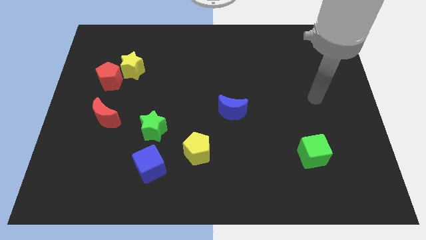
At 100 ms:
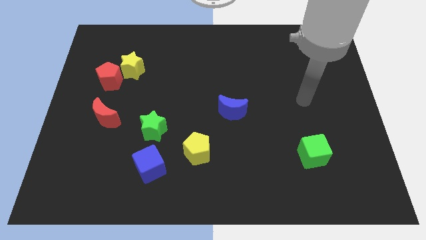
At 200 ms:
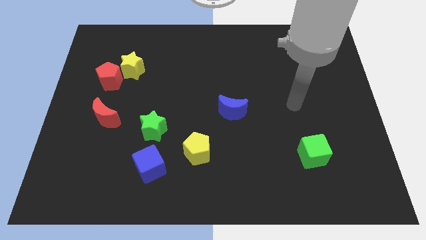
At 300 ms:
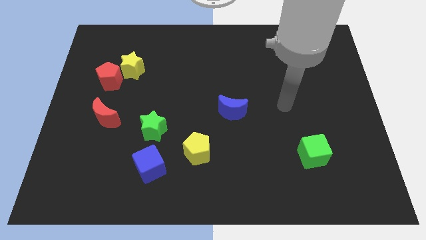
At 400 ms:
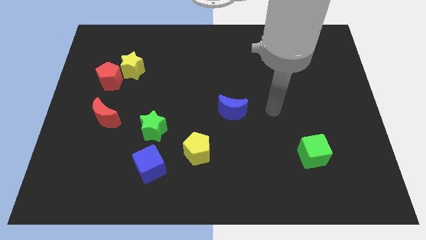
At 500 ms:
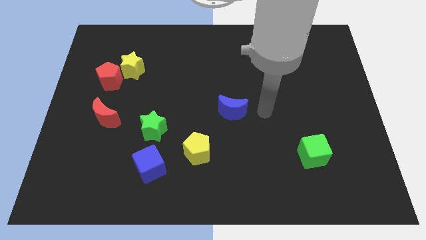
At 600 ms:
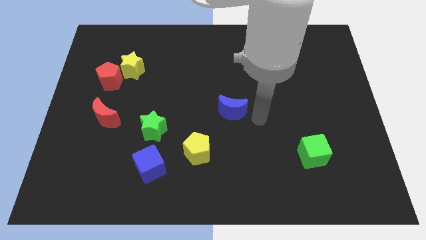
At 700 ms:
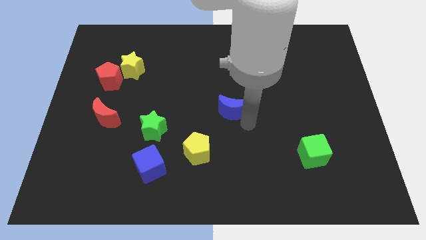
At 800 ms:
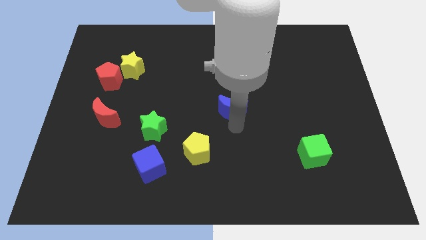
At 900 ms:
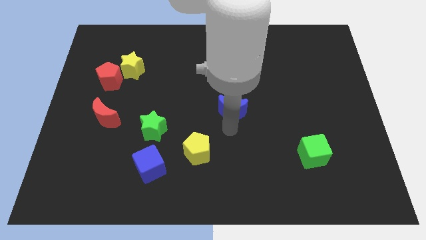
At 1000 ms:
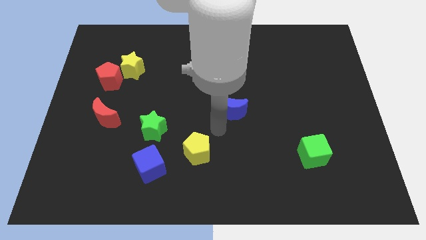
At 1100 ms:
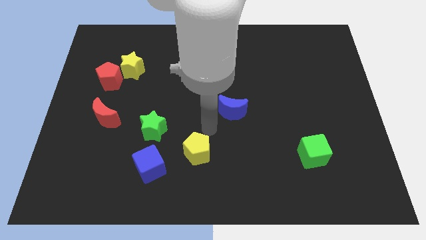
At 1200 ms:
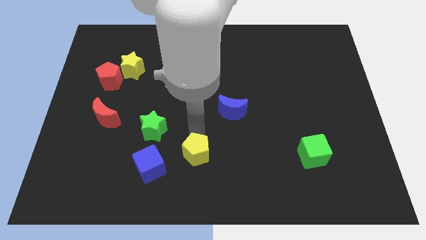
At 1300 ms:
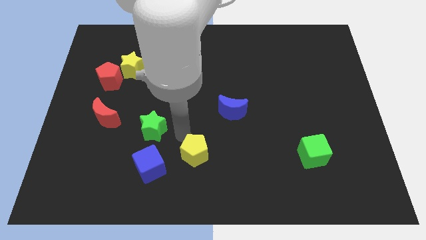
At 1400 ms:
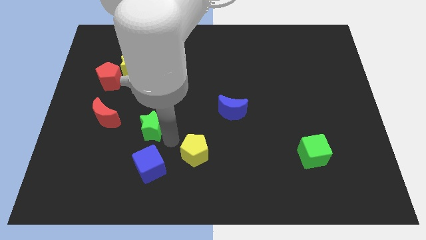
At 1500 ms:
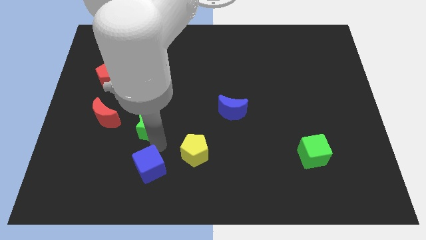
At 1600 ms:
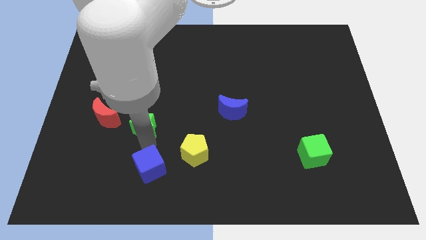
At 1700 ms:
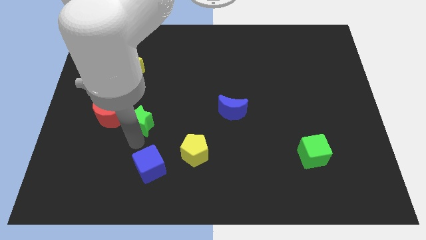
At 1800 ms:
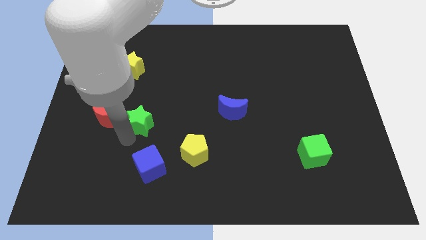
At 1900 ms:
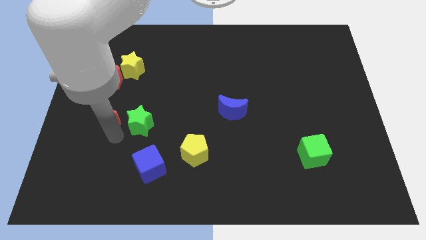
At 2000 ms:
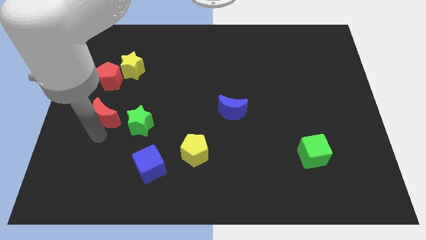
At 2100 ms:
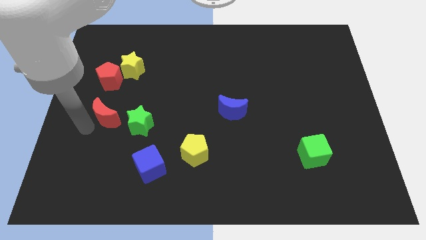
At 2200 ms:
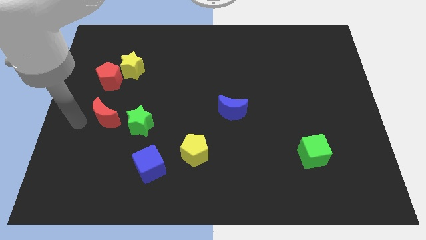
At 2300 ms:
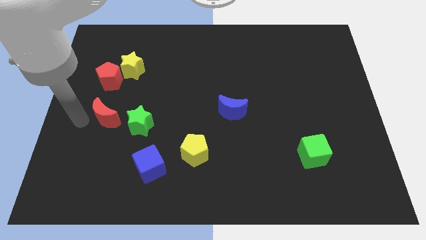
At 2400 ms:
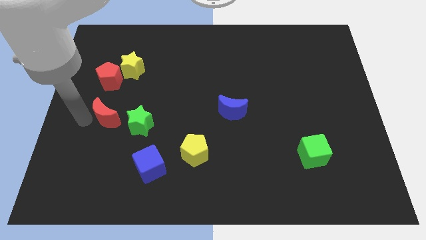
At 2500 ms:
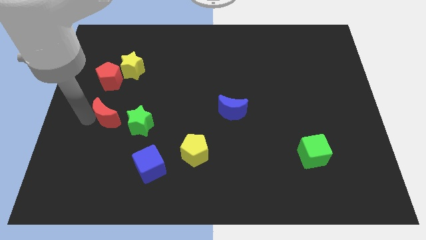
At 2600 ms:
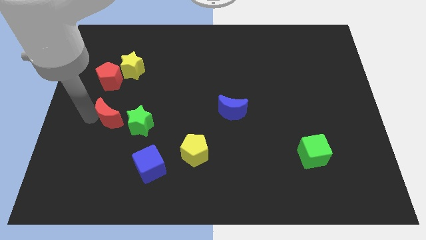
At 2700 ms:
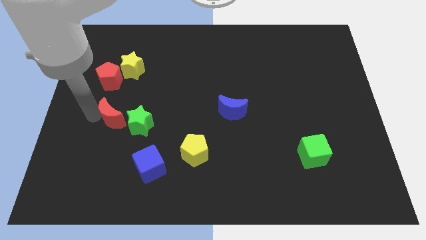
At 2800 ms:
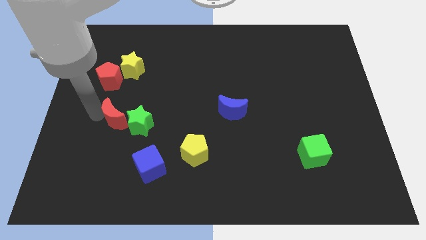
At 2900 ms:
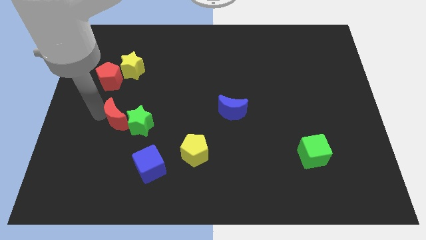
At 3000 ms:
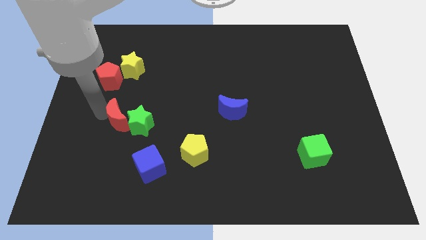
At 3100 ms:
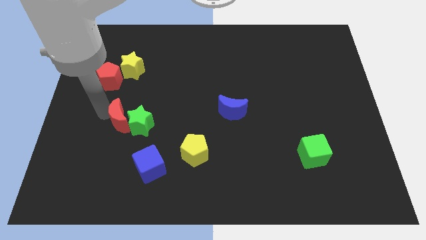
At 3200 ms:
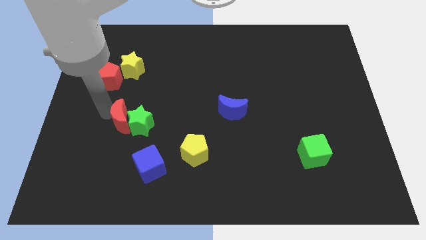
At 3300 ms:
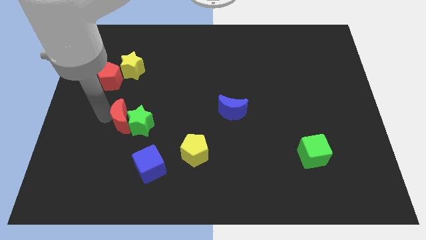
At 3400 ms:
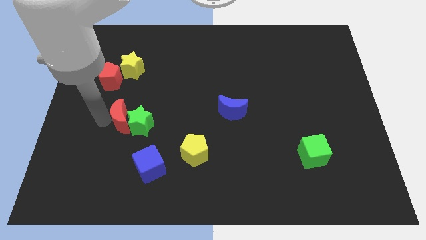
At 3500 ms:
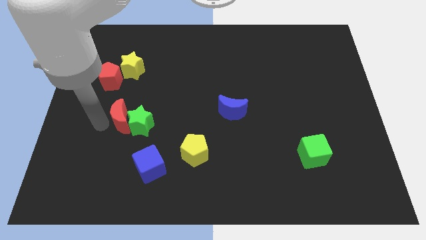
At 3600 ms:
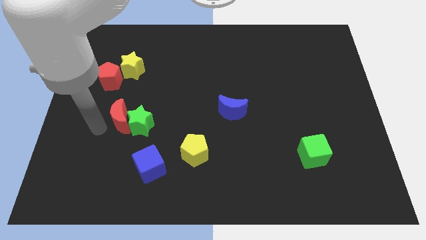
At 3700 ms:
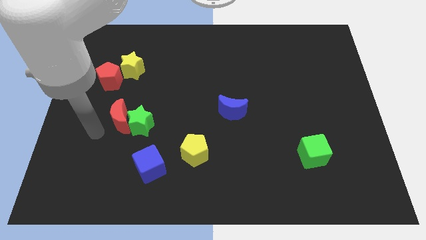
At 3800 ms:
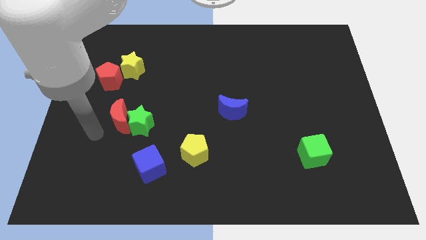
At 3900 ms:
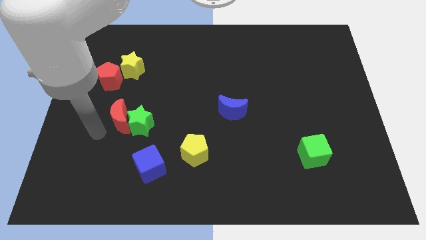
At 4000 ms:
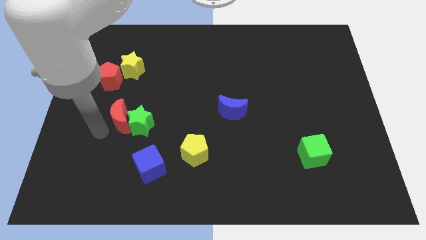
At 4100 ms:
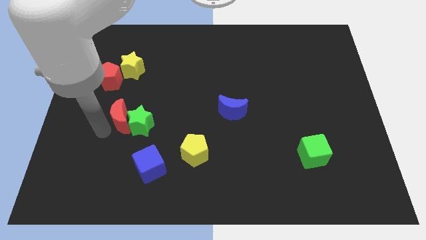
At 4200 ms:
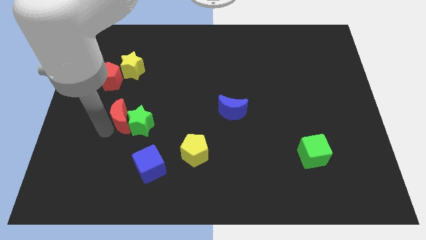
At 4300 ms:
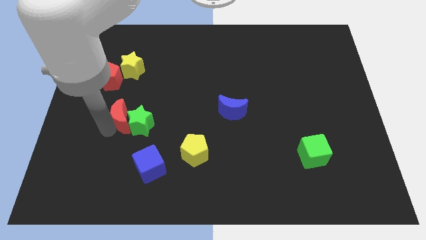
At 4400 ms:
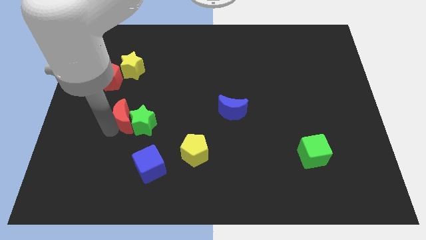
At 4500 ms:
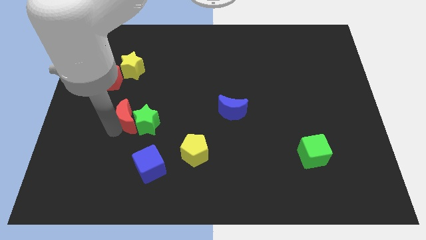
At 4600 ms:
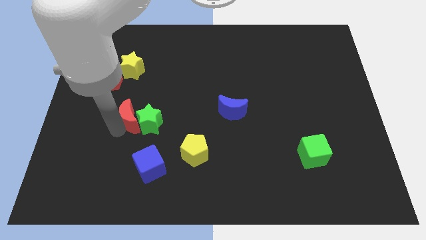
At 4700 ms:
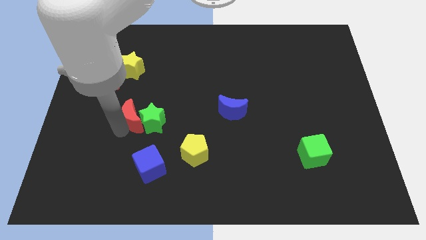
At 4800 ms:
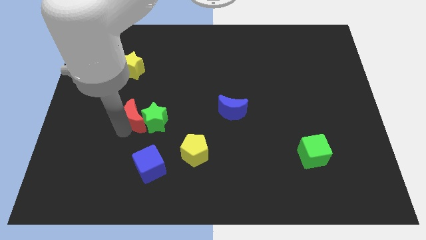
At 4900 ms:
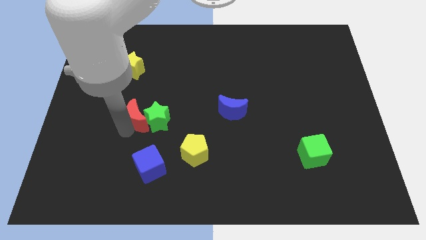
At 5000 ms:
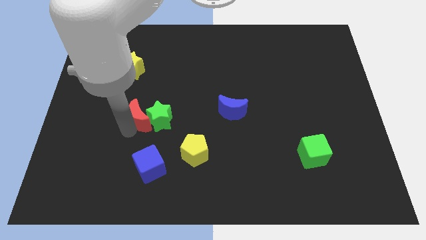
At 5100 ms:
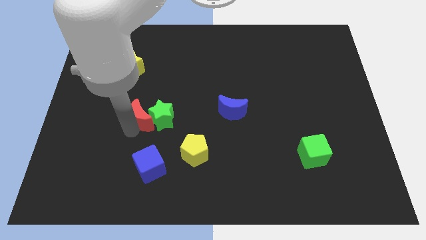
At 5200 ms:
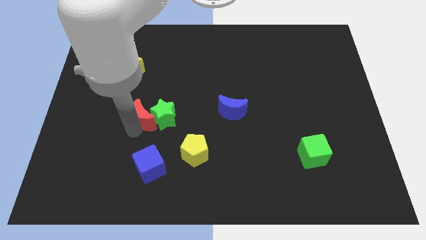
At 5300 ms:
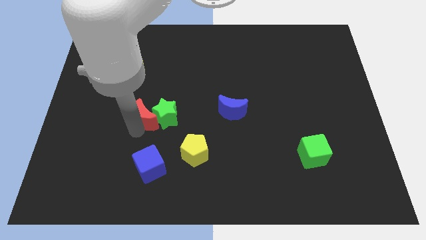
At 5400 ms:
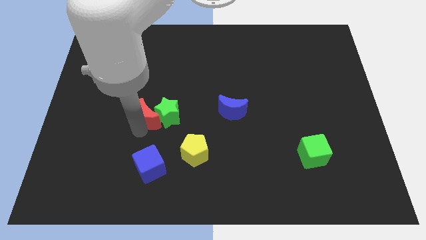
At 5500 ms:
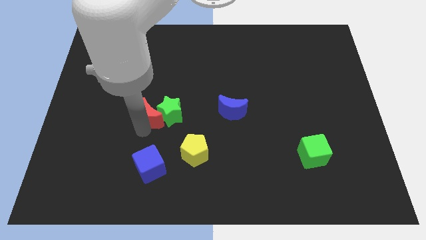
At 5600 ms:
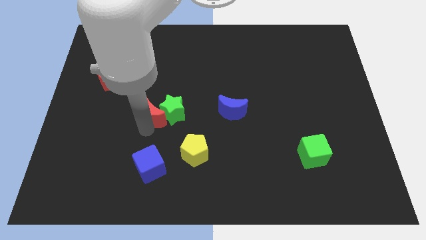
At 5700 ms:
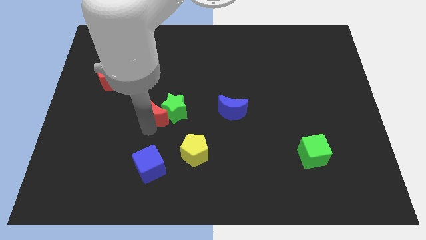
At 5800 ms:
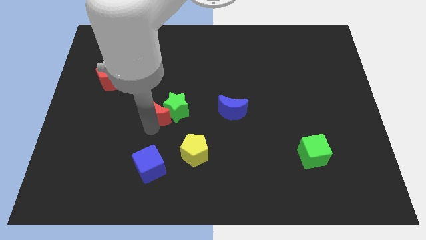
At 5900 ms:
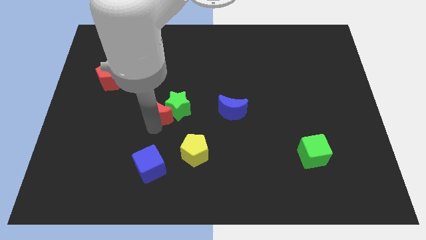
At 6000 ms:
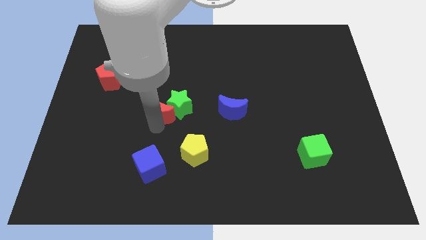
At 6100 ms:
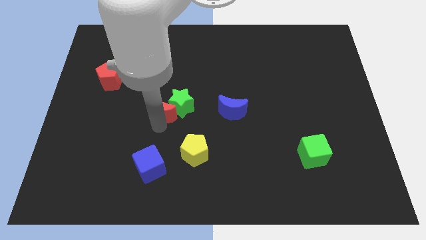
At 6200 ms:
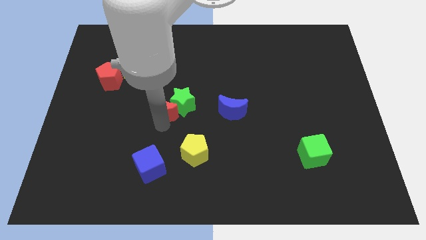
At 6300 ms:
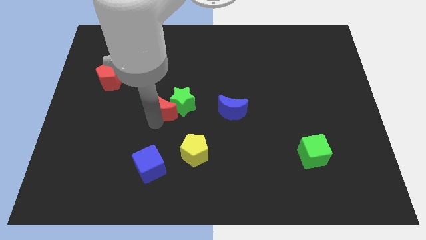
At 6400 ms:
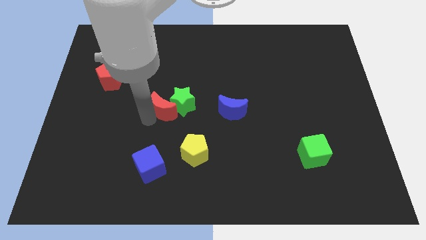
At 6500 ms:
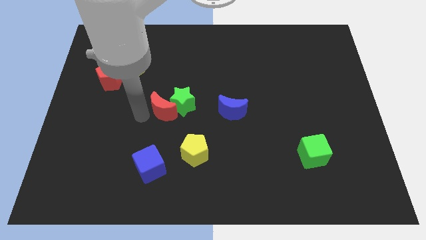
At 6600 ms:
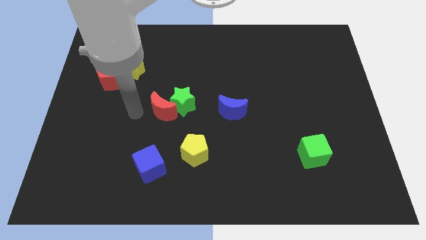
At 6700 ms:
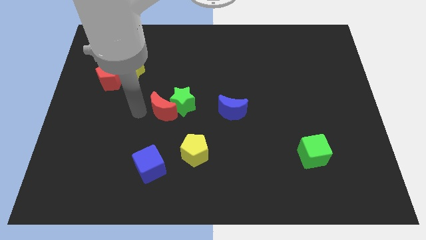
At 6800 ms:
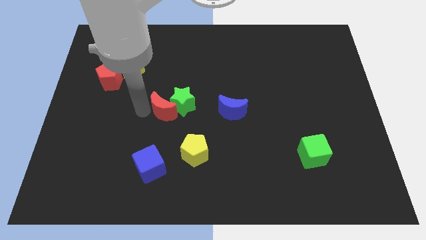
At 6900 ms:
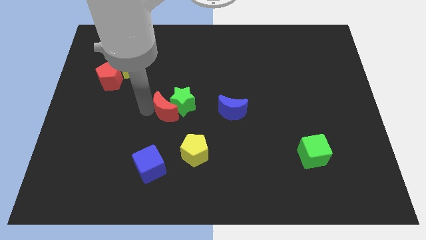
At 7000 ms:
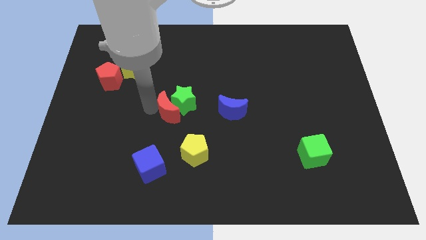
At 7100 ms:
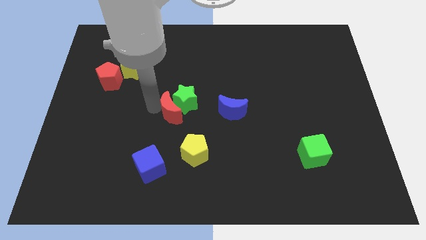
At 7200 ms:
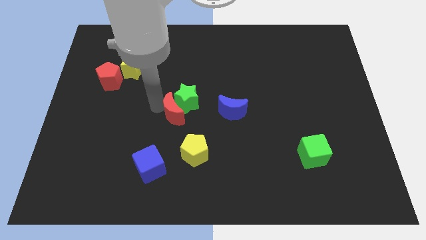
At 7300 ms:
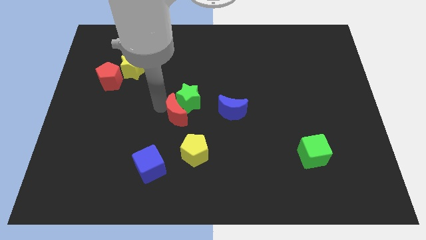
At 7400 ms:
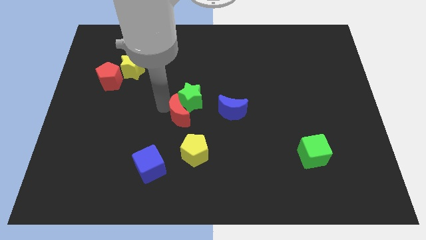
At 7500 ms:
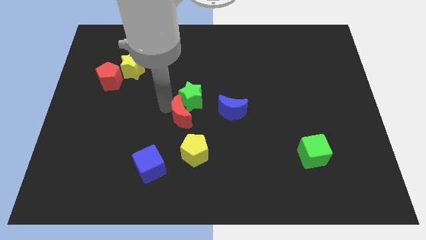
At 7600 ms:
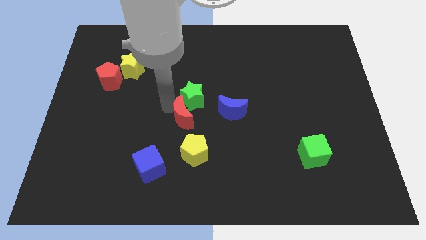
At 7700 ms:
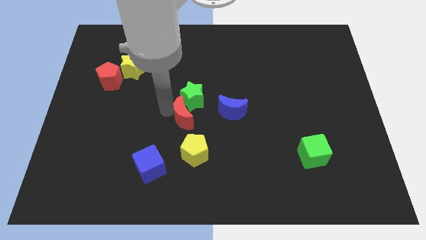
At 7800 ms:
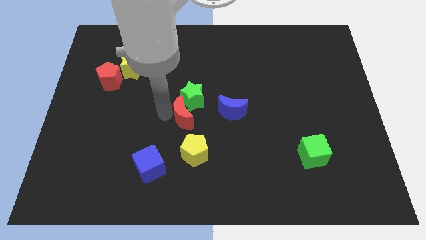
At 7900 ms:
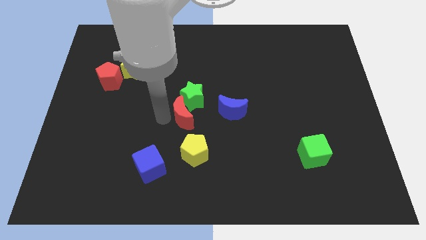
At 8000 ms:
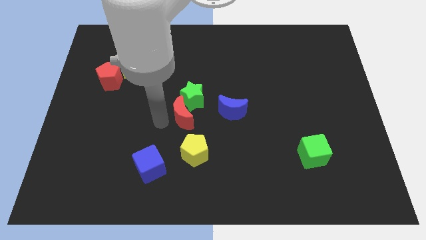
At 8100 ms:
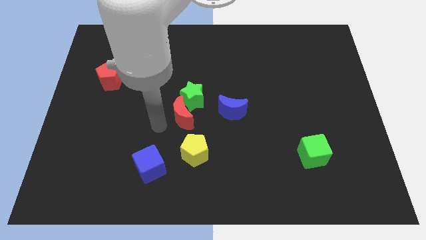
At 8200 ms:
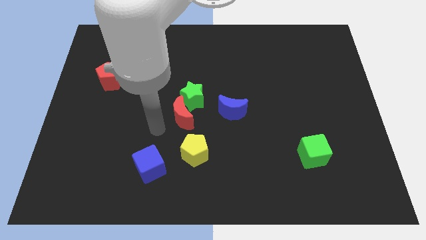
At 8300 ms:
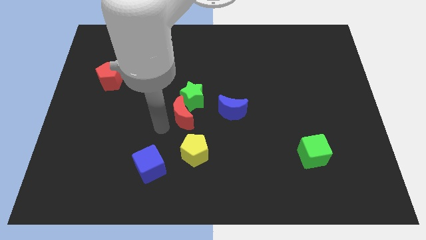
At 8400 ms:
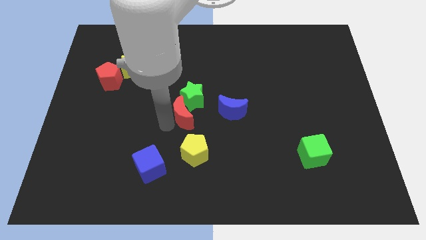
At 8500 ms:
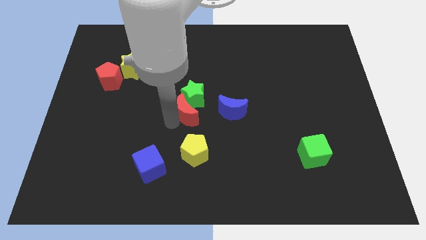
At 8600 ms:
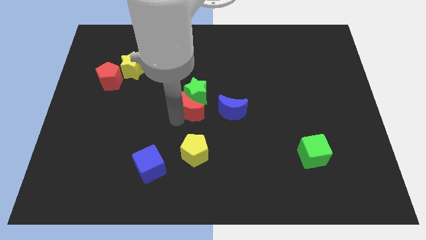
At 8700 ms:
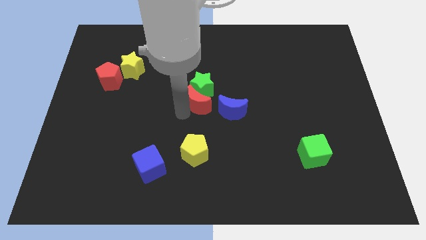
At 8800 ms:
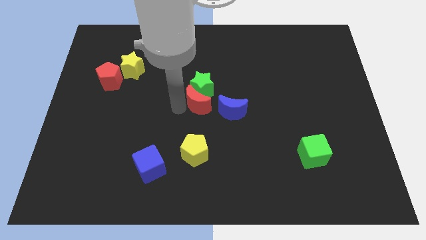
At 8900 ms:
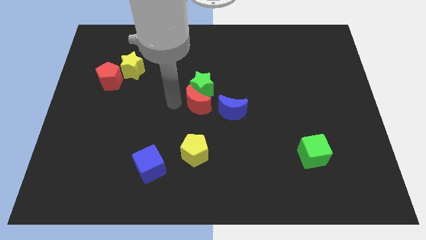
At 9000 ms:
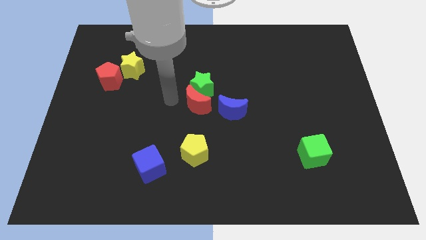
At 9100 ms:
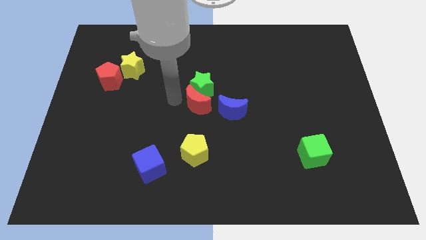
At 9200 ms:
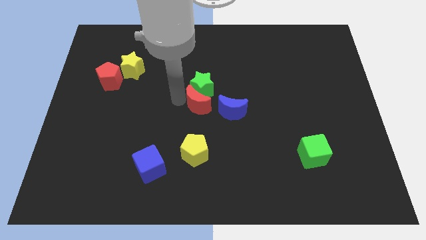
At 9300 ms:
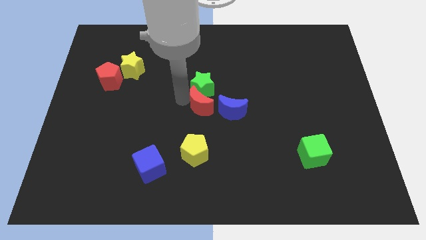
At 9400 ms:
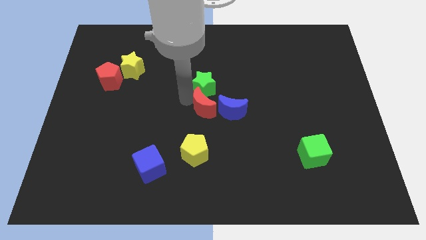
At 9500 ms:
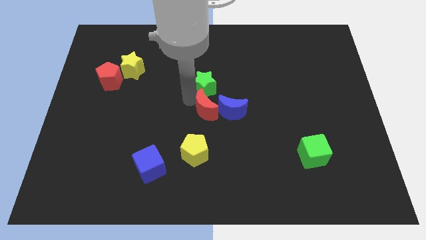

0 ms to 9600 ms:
move the red moon close to the blue moon
